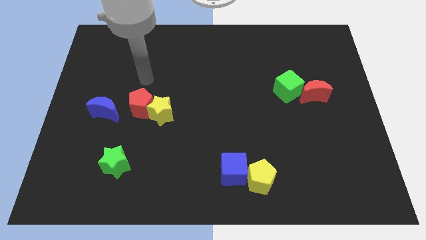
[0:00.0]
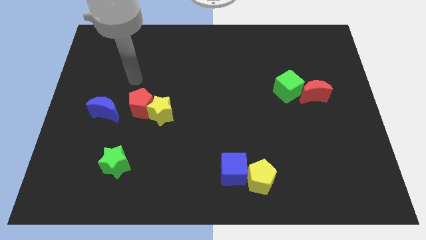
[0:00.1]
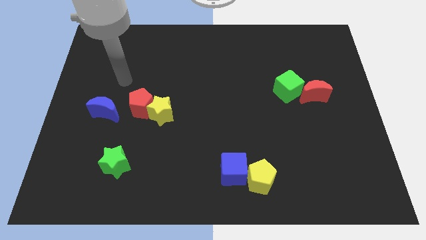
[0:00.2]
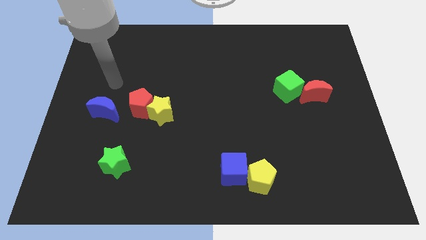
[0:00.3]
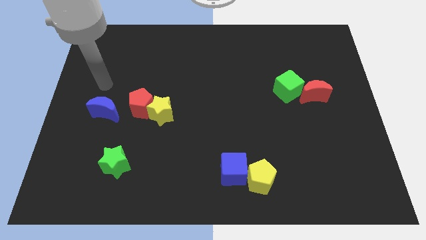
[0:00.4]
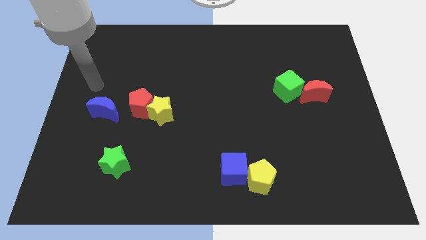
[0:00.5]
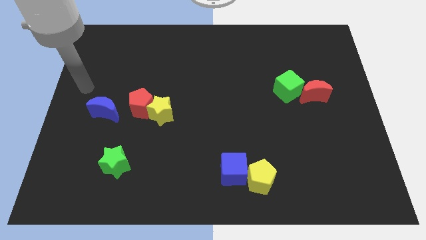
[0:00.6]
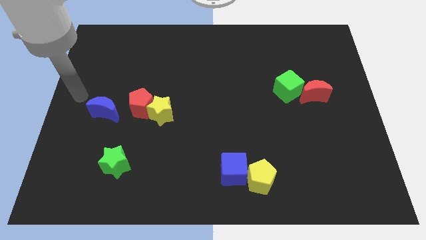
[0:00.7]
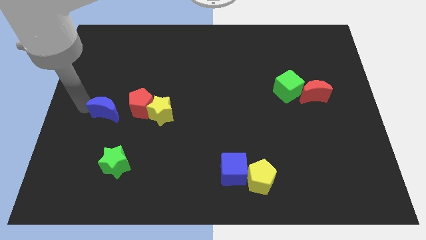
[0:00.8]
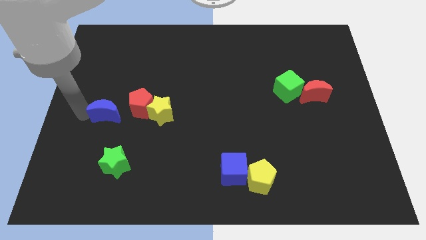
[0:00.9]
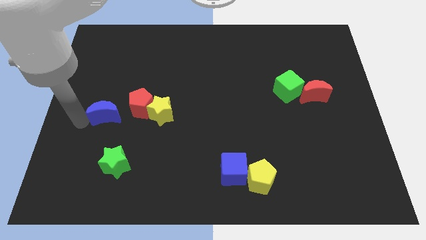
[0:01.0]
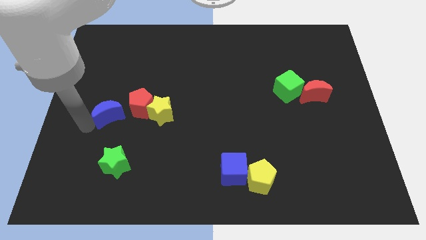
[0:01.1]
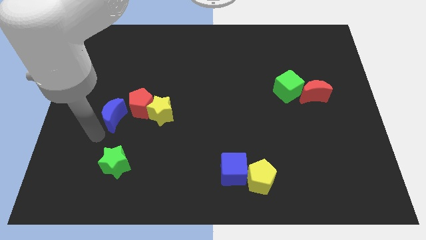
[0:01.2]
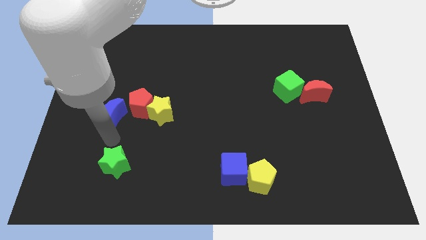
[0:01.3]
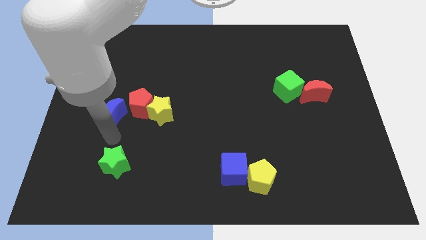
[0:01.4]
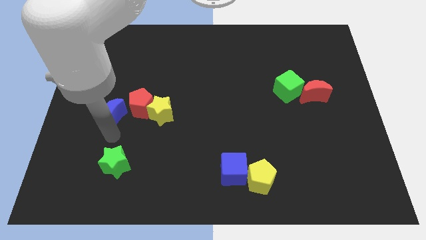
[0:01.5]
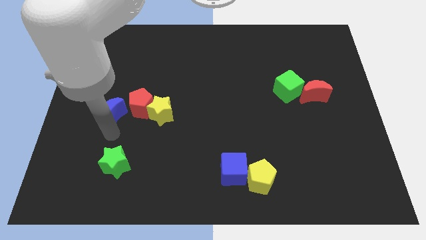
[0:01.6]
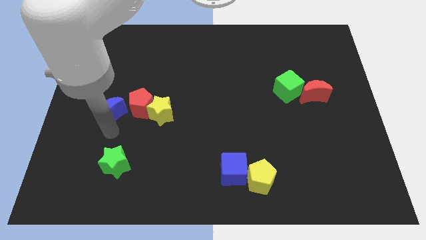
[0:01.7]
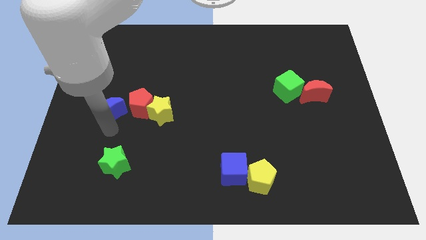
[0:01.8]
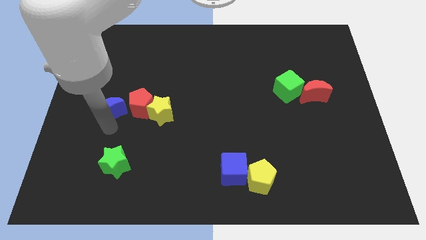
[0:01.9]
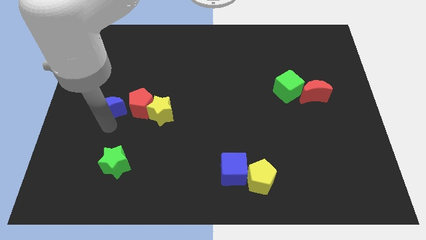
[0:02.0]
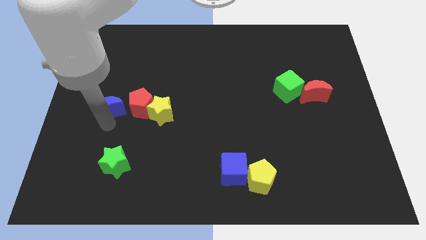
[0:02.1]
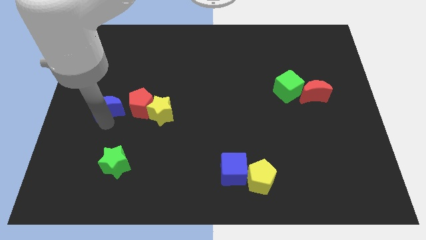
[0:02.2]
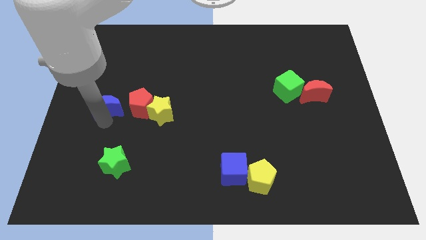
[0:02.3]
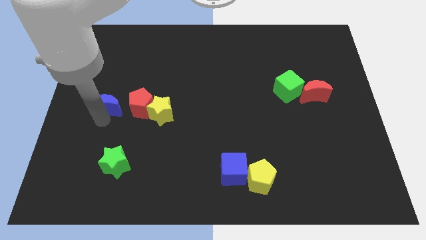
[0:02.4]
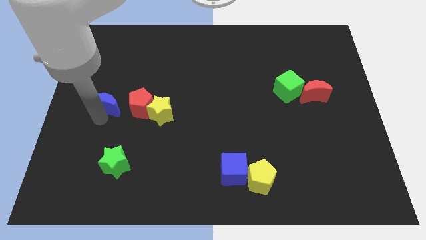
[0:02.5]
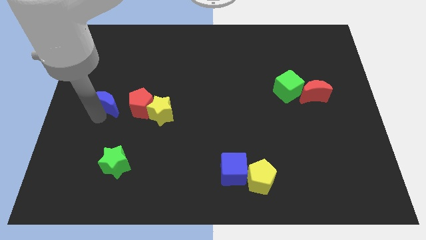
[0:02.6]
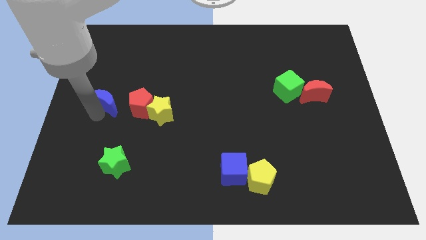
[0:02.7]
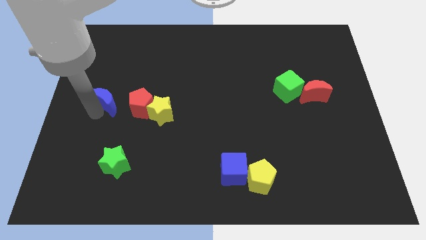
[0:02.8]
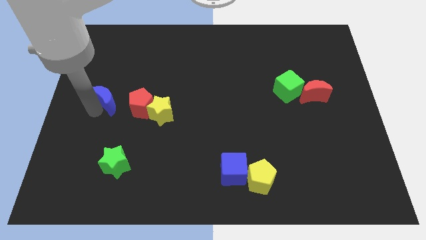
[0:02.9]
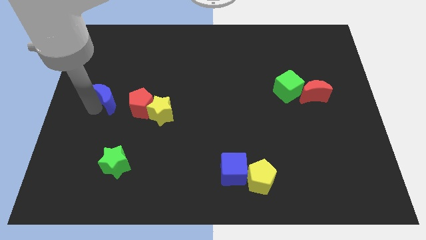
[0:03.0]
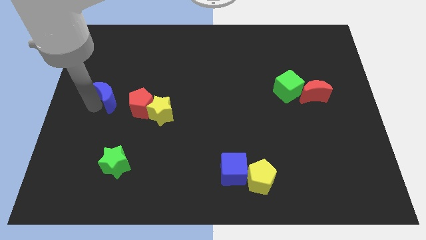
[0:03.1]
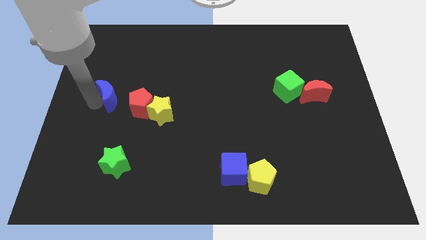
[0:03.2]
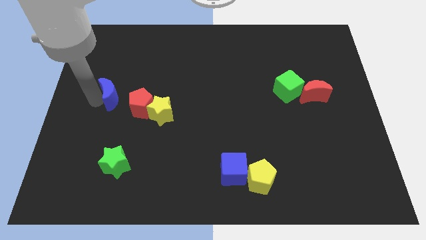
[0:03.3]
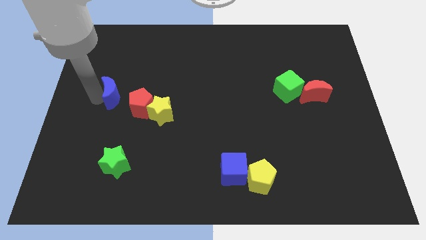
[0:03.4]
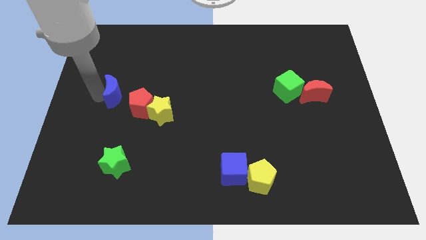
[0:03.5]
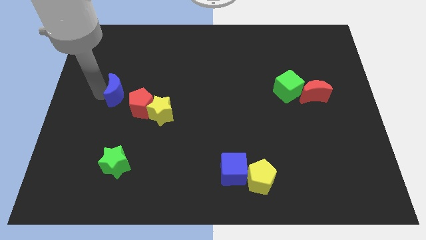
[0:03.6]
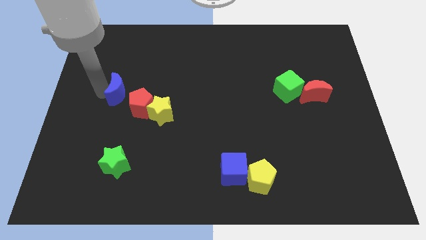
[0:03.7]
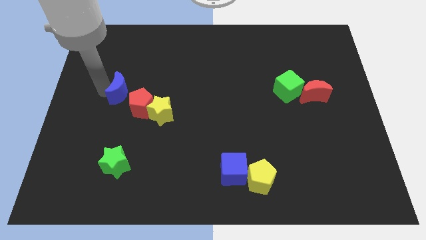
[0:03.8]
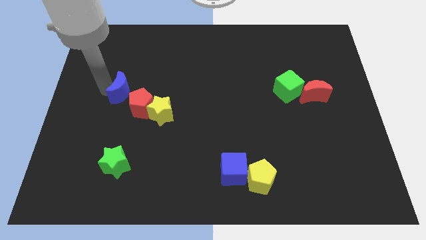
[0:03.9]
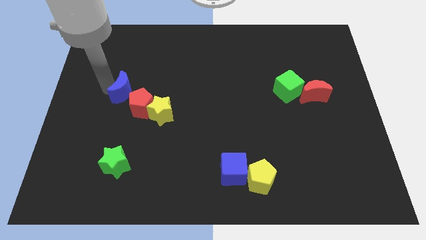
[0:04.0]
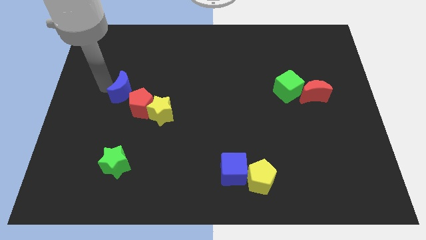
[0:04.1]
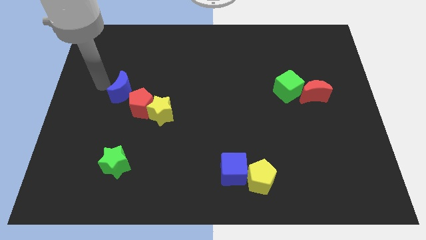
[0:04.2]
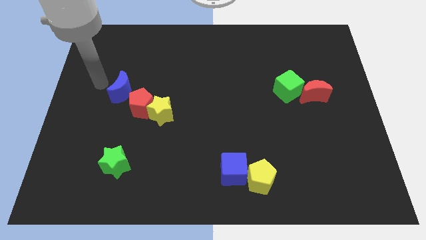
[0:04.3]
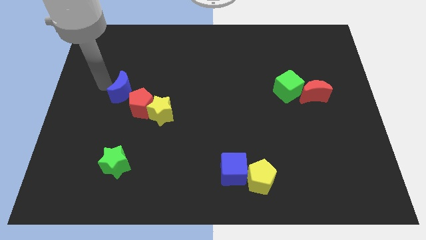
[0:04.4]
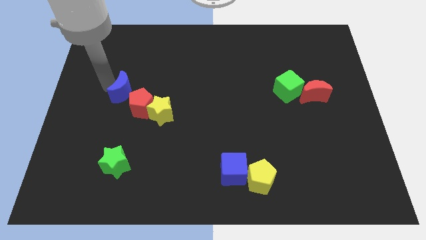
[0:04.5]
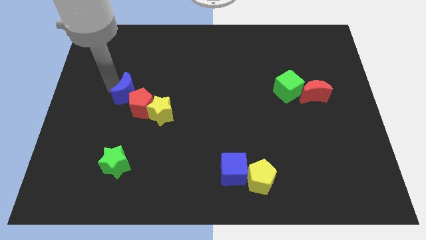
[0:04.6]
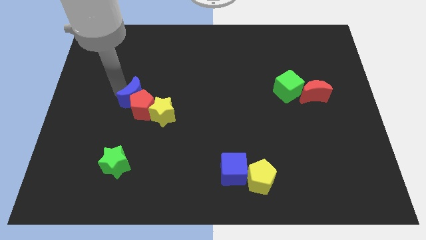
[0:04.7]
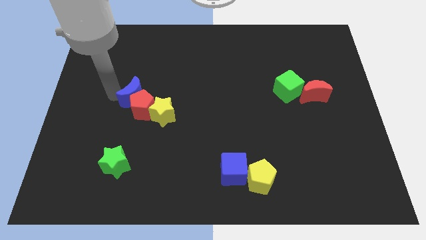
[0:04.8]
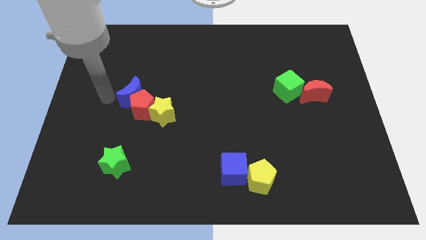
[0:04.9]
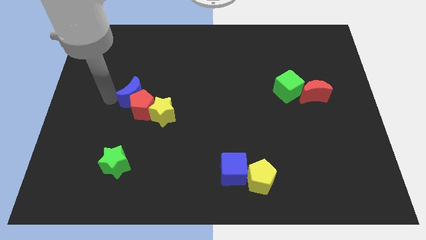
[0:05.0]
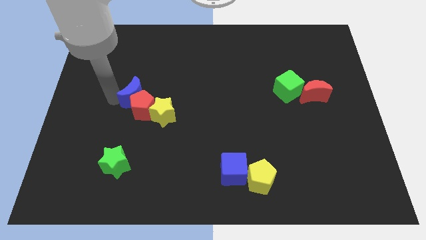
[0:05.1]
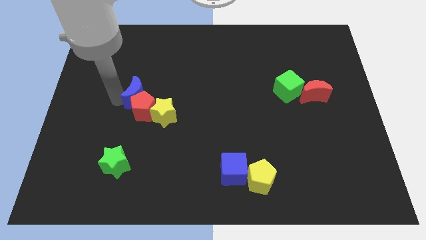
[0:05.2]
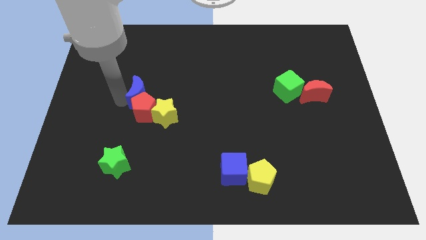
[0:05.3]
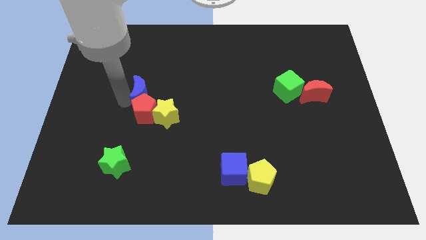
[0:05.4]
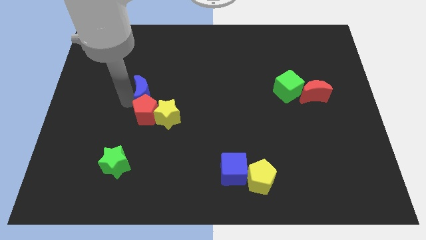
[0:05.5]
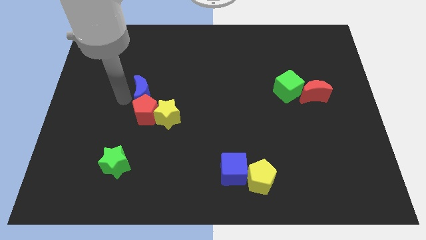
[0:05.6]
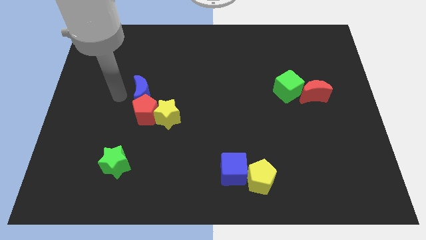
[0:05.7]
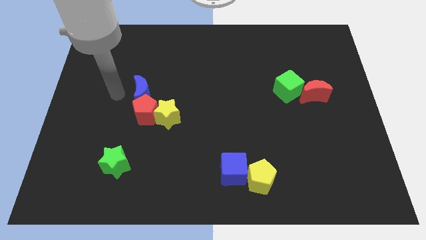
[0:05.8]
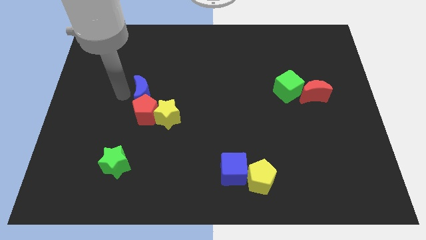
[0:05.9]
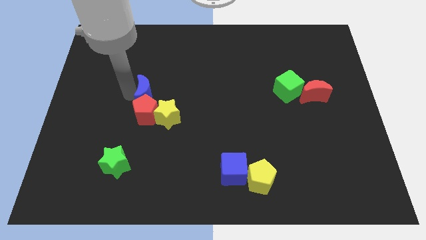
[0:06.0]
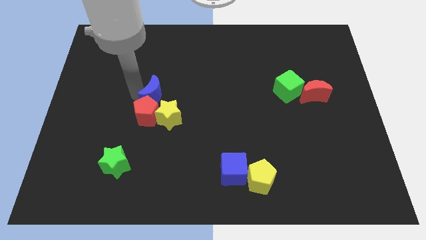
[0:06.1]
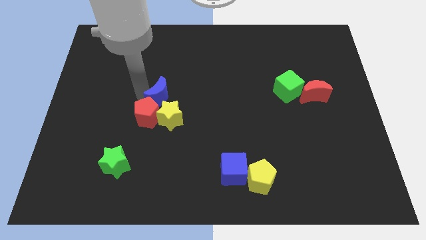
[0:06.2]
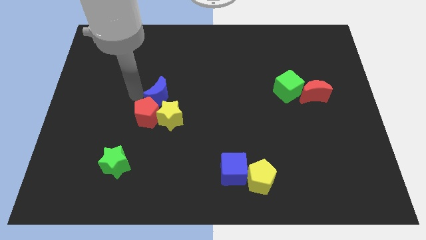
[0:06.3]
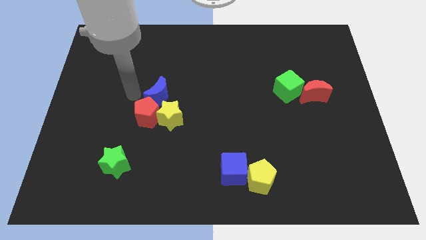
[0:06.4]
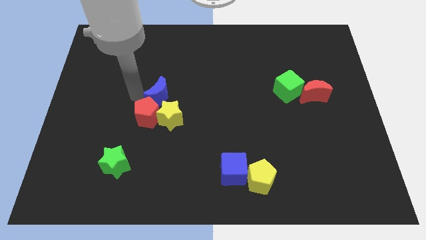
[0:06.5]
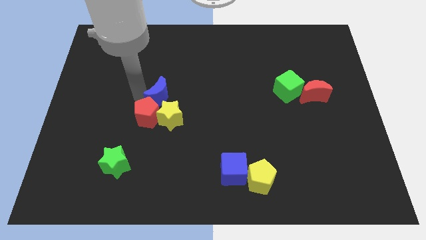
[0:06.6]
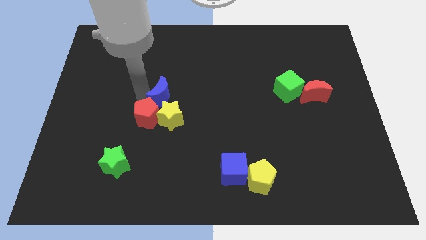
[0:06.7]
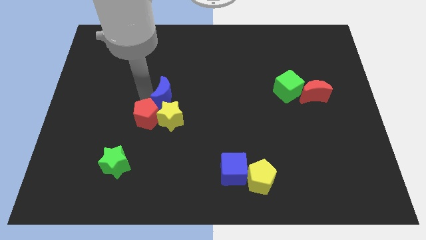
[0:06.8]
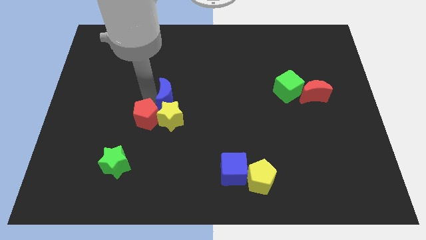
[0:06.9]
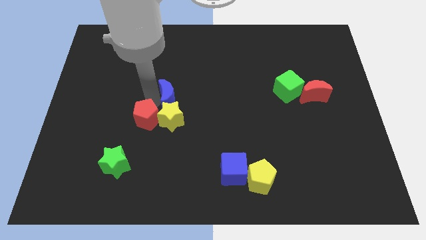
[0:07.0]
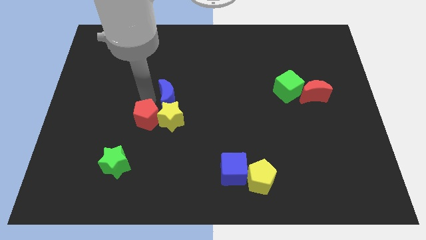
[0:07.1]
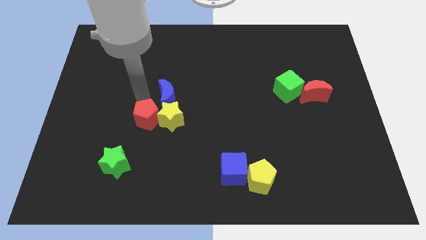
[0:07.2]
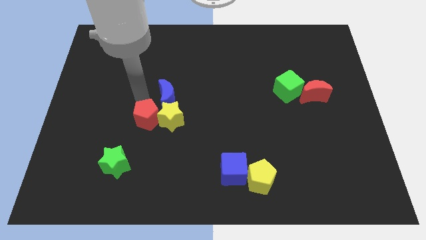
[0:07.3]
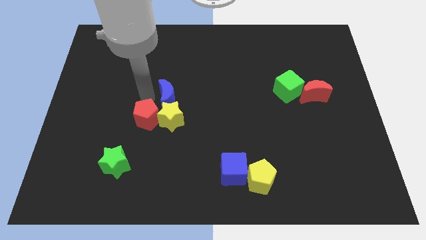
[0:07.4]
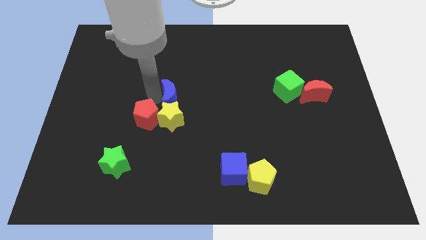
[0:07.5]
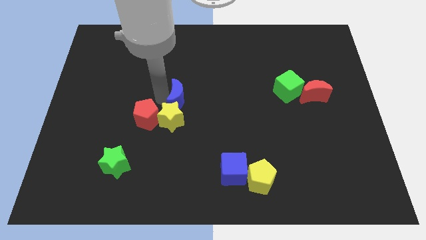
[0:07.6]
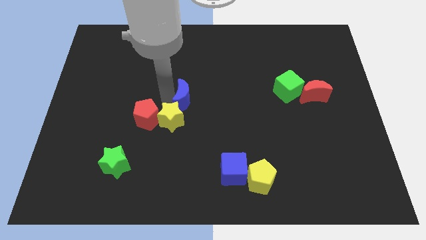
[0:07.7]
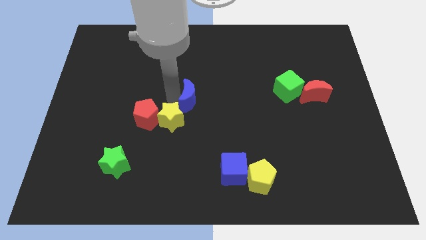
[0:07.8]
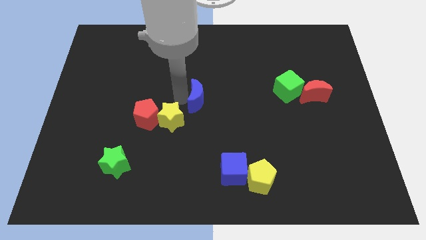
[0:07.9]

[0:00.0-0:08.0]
push the blue moon to the right
